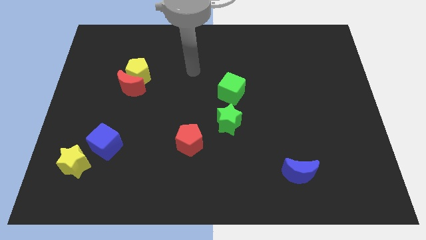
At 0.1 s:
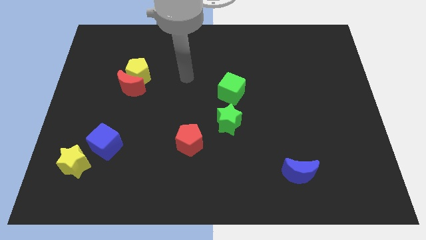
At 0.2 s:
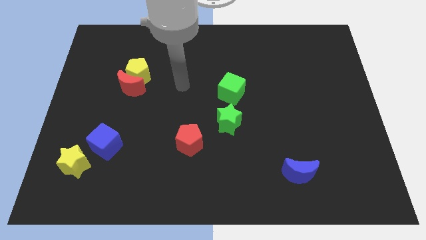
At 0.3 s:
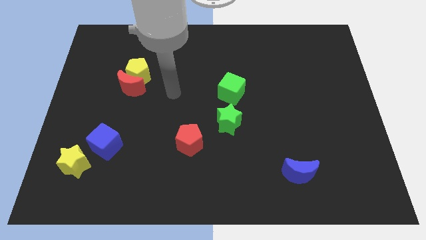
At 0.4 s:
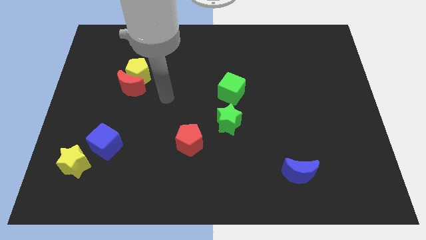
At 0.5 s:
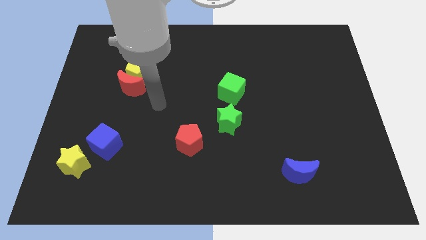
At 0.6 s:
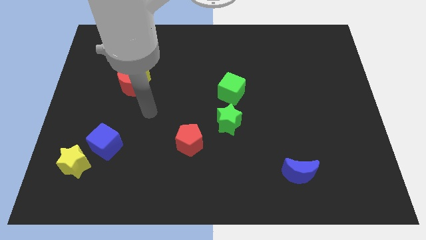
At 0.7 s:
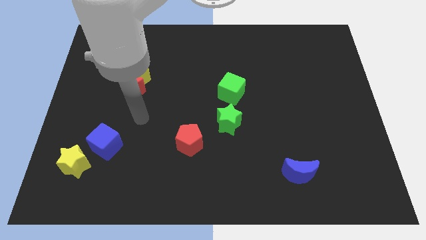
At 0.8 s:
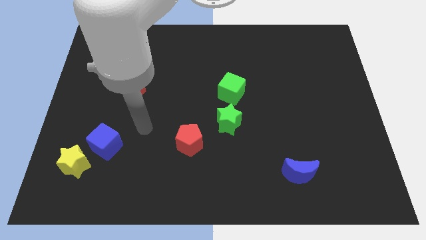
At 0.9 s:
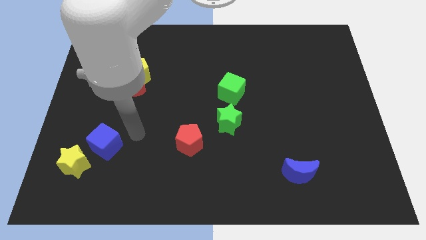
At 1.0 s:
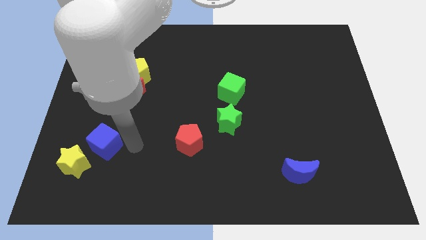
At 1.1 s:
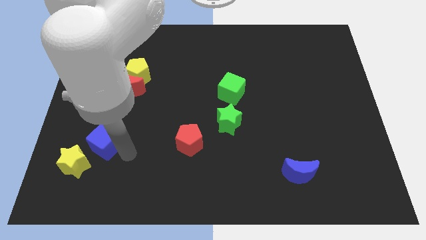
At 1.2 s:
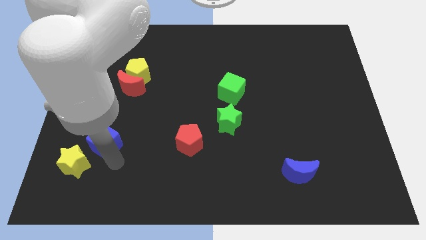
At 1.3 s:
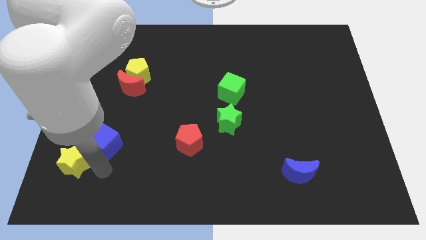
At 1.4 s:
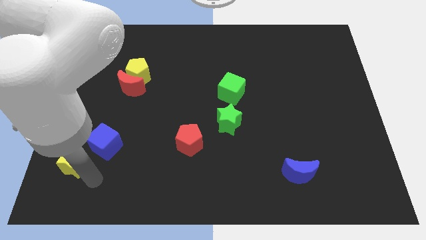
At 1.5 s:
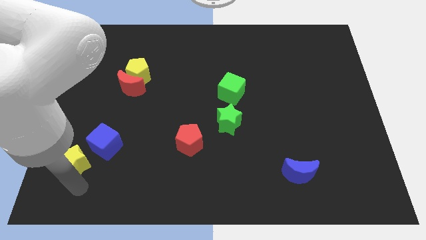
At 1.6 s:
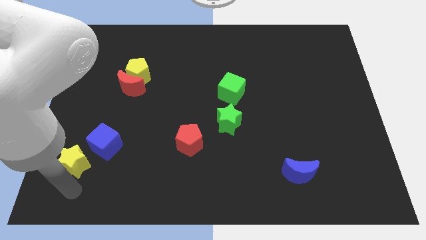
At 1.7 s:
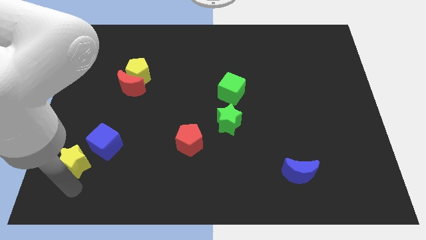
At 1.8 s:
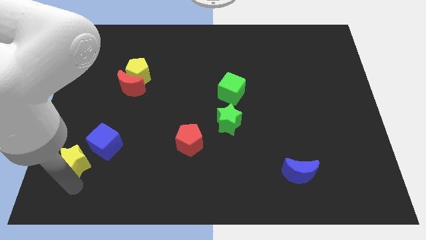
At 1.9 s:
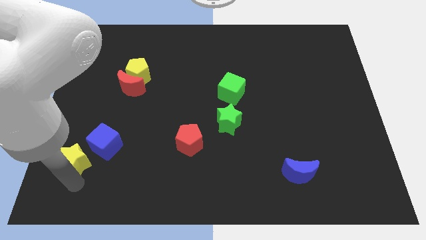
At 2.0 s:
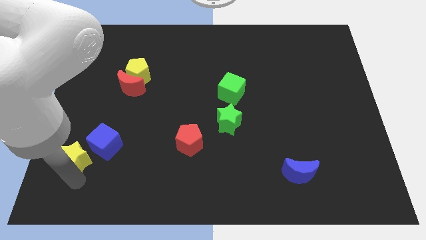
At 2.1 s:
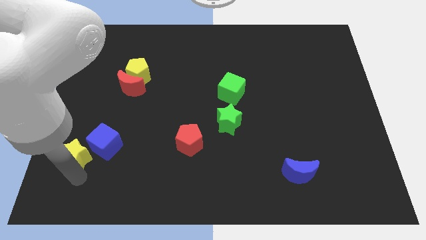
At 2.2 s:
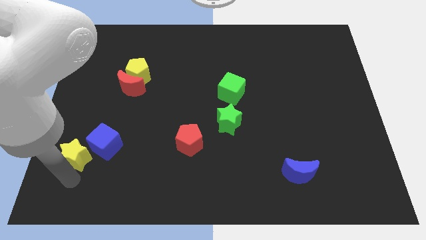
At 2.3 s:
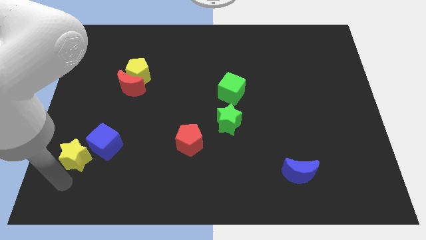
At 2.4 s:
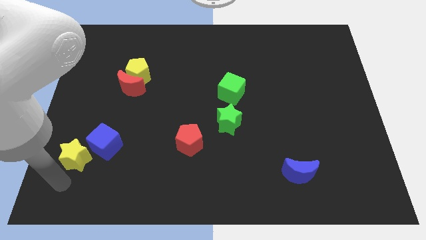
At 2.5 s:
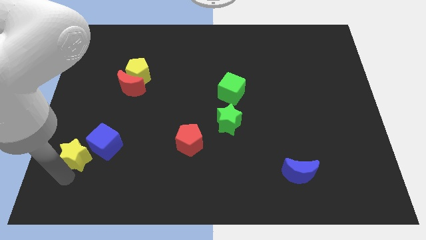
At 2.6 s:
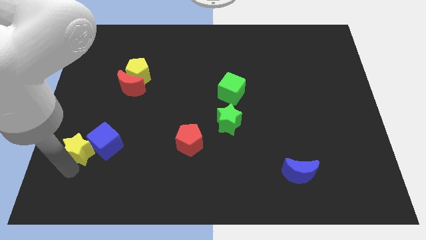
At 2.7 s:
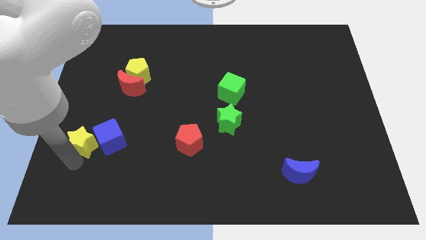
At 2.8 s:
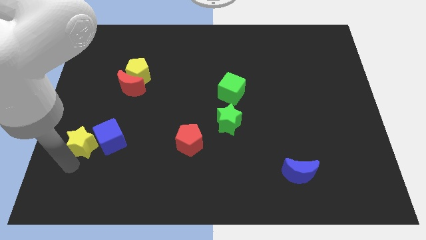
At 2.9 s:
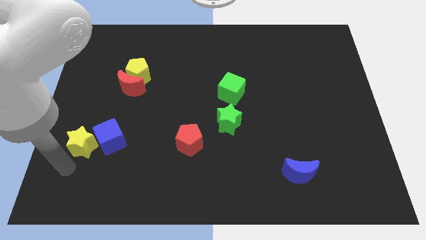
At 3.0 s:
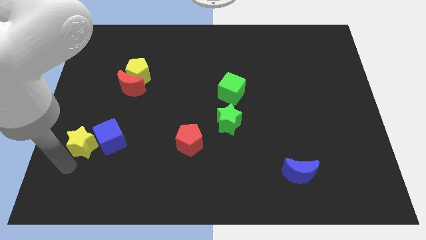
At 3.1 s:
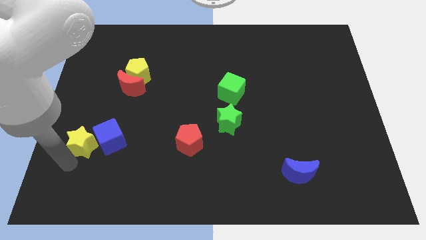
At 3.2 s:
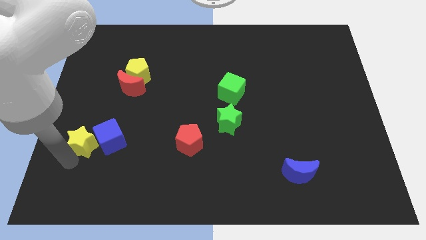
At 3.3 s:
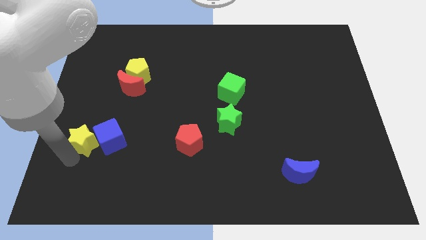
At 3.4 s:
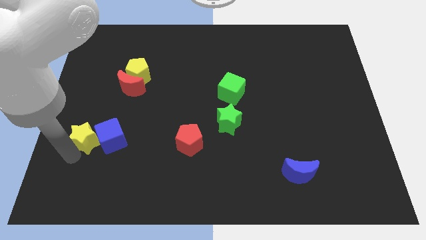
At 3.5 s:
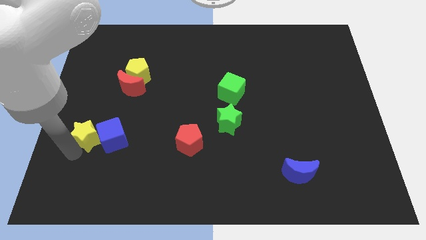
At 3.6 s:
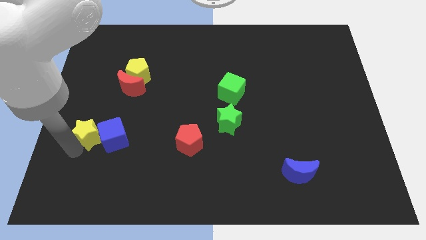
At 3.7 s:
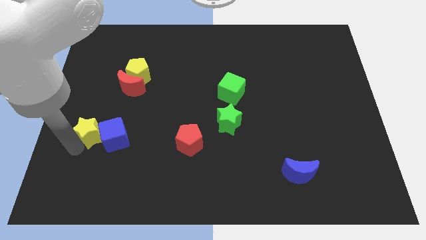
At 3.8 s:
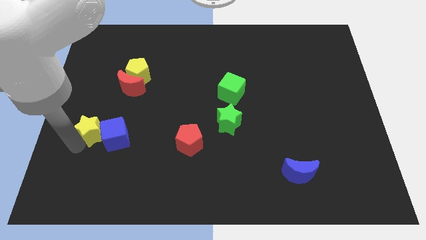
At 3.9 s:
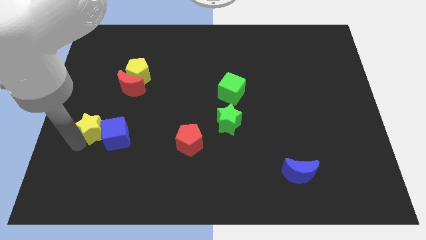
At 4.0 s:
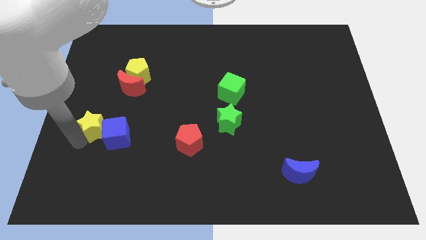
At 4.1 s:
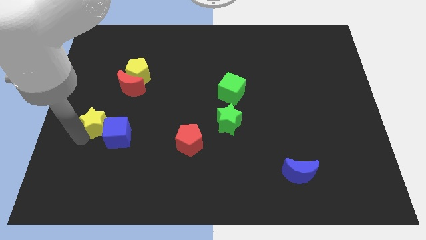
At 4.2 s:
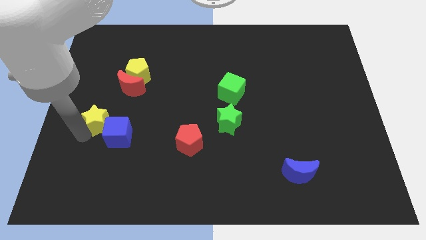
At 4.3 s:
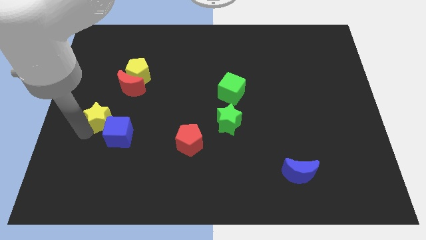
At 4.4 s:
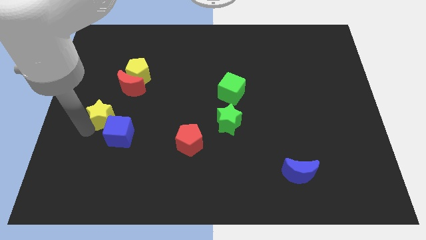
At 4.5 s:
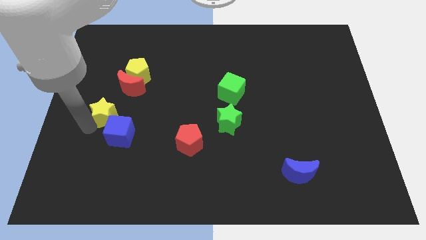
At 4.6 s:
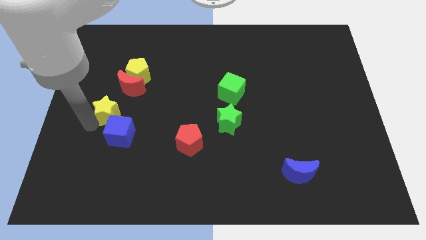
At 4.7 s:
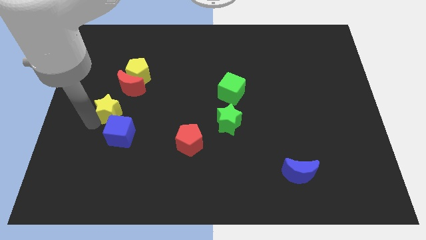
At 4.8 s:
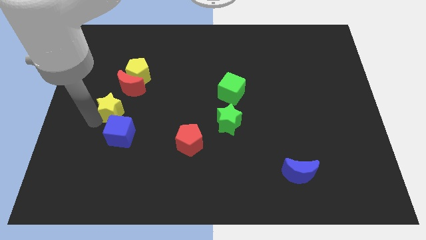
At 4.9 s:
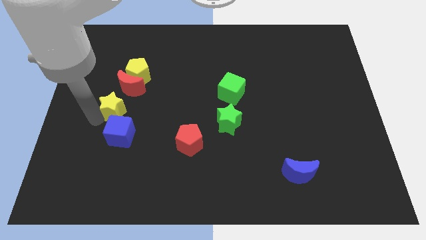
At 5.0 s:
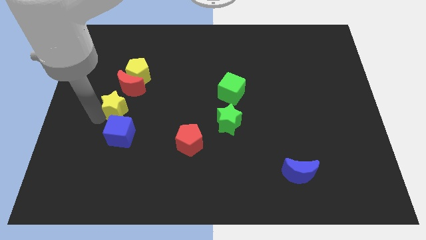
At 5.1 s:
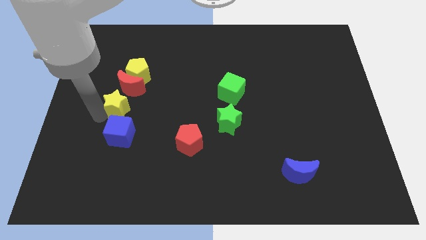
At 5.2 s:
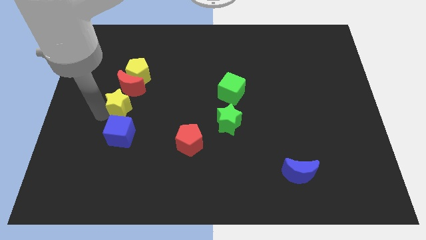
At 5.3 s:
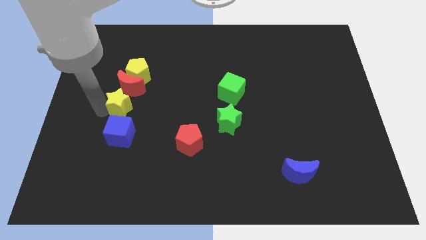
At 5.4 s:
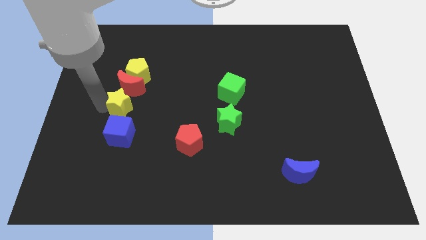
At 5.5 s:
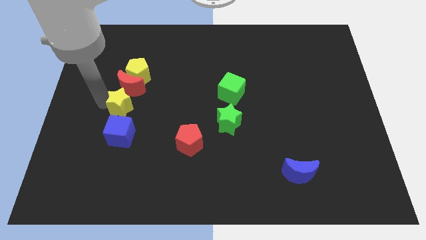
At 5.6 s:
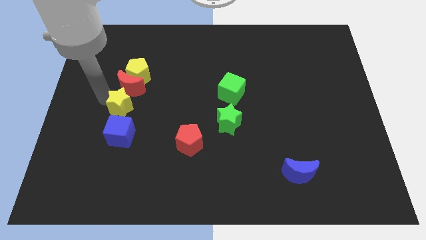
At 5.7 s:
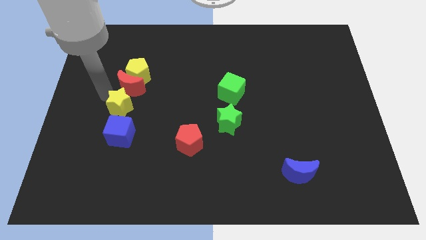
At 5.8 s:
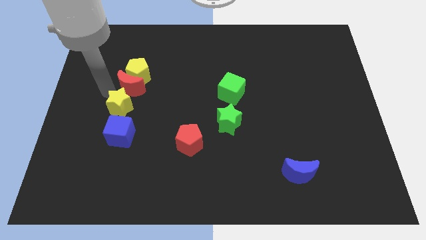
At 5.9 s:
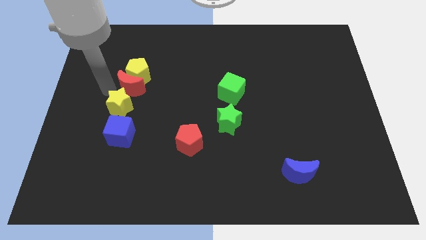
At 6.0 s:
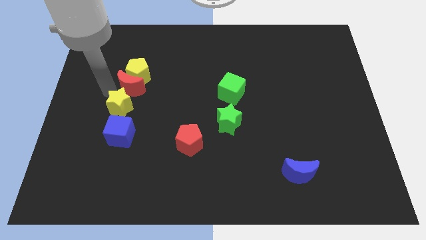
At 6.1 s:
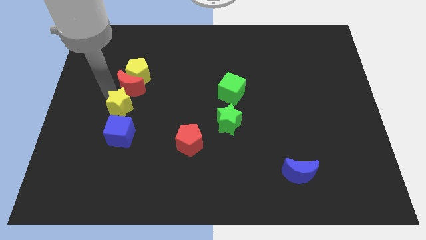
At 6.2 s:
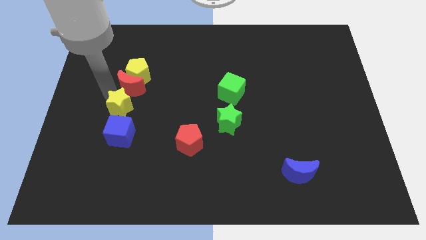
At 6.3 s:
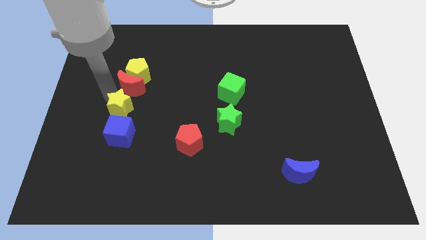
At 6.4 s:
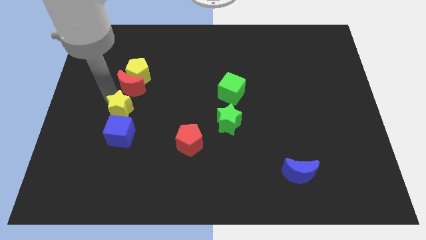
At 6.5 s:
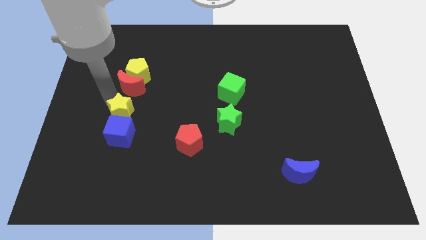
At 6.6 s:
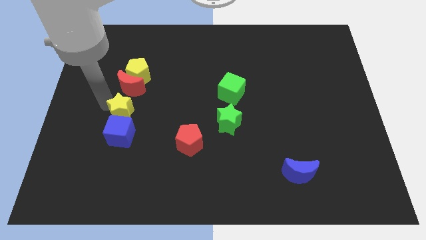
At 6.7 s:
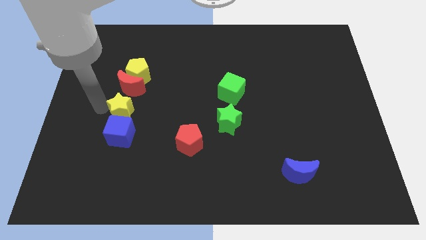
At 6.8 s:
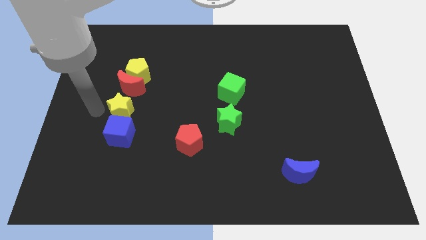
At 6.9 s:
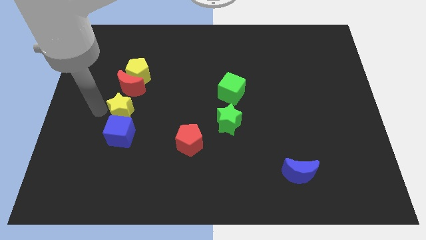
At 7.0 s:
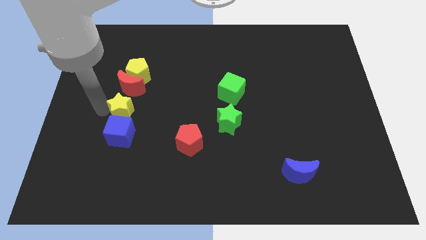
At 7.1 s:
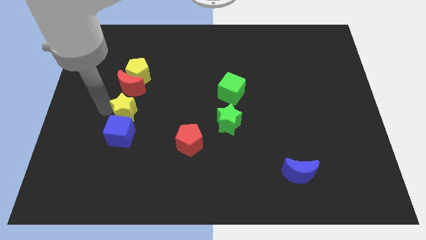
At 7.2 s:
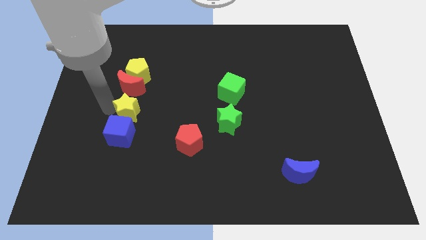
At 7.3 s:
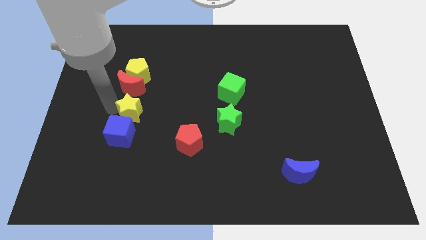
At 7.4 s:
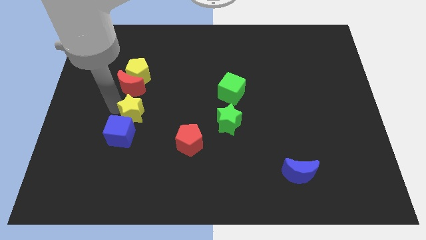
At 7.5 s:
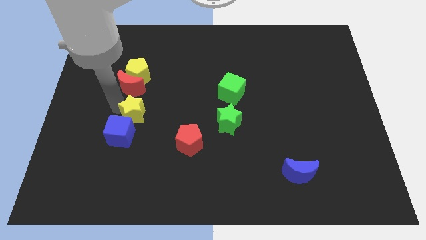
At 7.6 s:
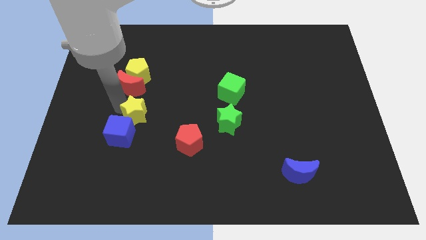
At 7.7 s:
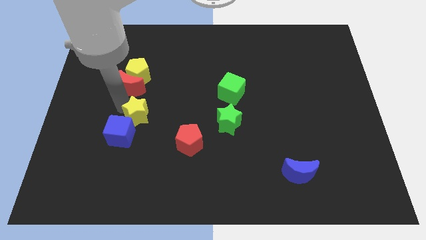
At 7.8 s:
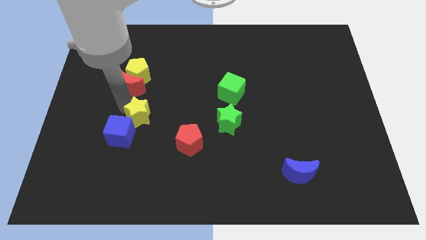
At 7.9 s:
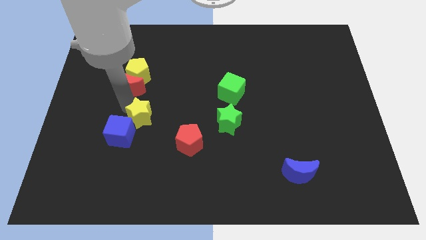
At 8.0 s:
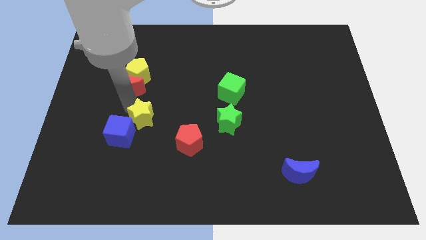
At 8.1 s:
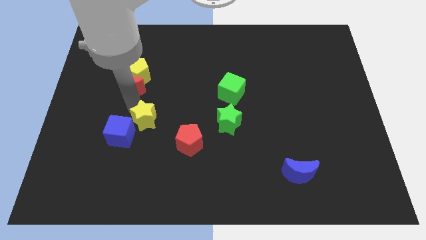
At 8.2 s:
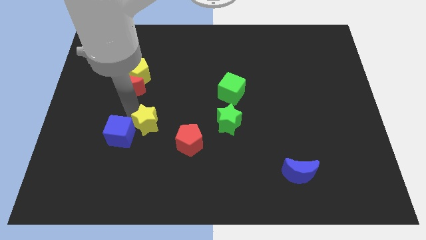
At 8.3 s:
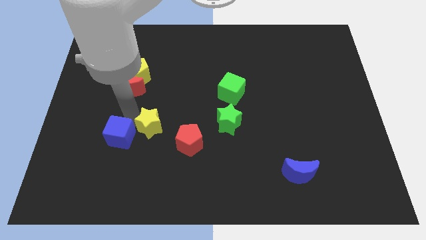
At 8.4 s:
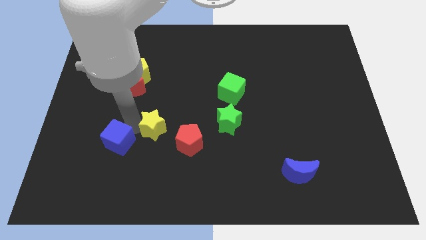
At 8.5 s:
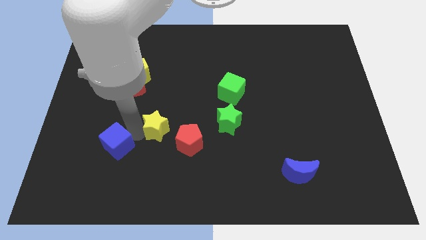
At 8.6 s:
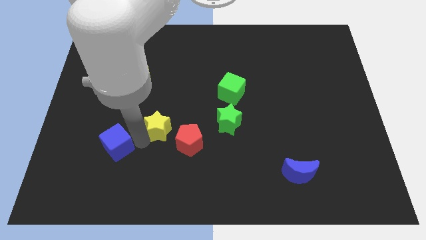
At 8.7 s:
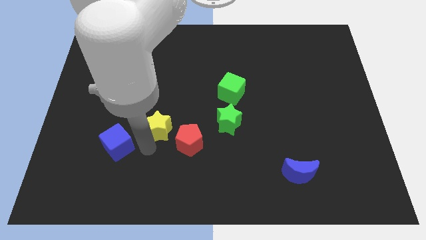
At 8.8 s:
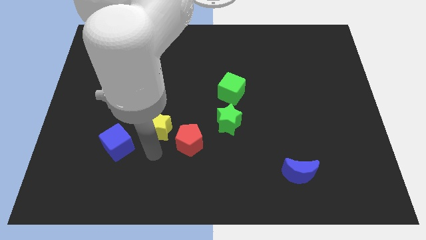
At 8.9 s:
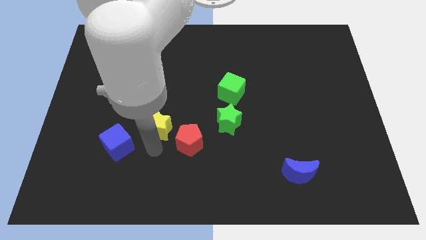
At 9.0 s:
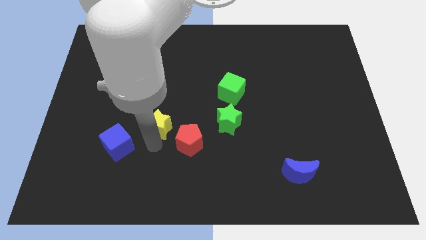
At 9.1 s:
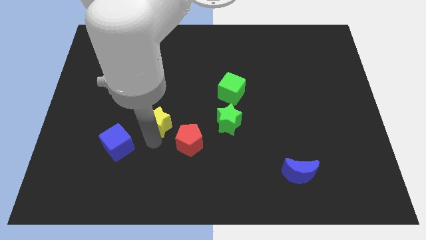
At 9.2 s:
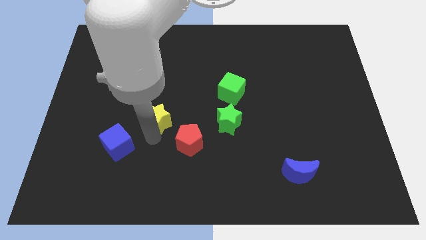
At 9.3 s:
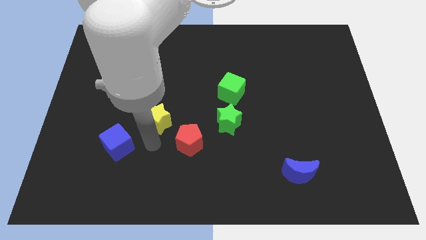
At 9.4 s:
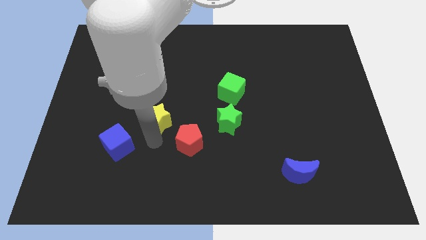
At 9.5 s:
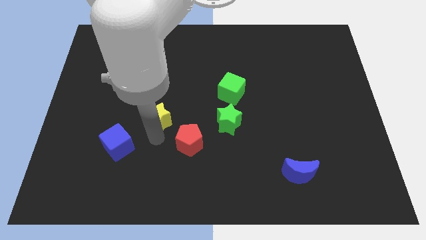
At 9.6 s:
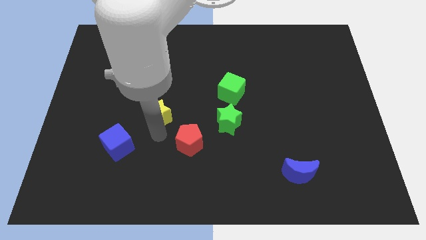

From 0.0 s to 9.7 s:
push the yellow star up and to the right
